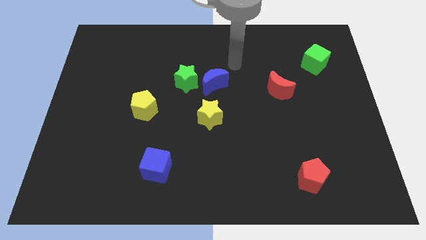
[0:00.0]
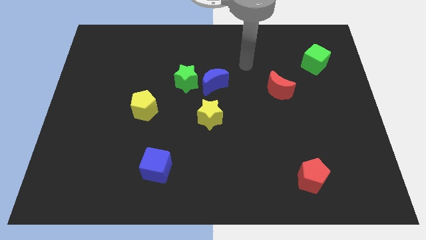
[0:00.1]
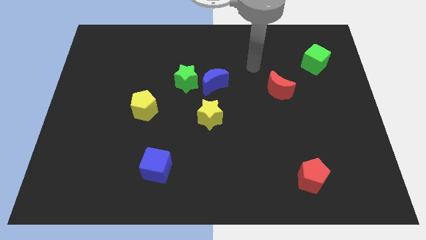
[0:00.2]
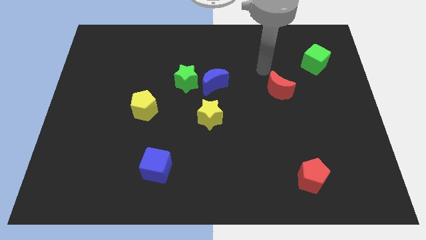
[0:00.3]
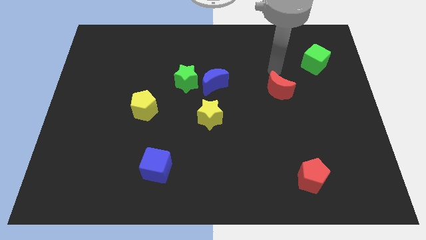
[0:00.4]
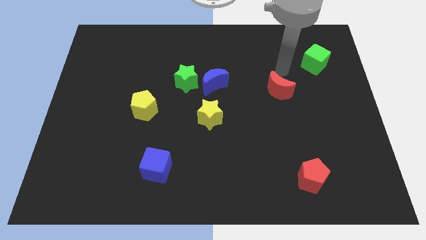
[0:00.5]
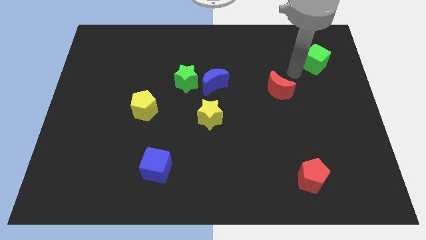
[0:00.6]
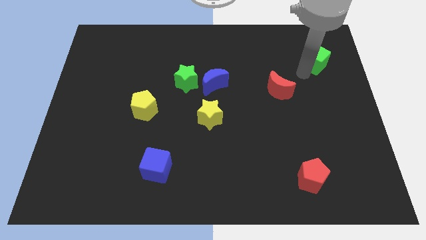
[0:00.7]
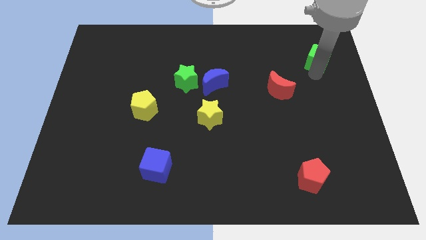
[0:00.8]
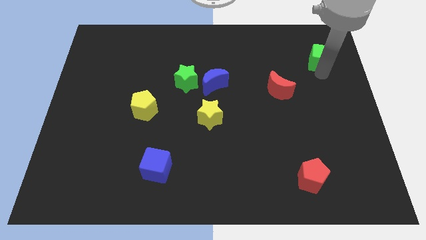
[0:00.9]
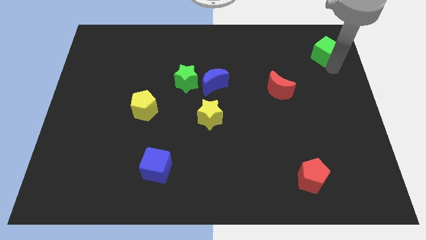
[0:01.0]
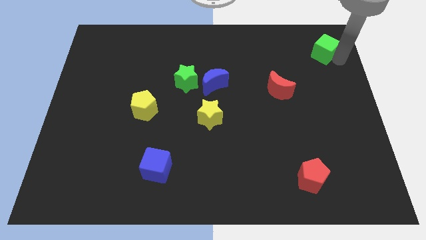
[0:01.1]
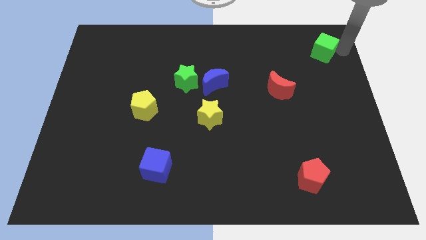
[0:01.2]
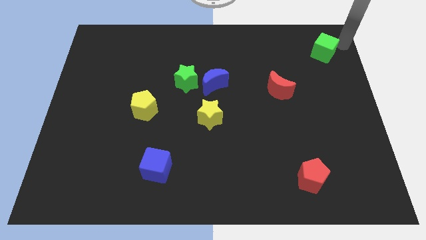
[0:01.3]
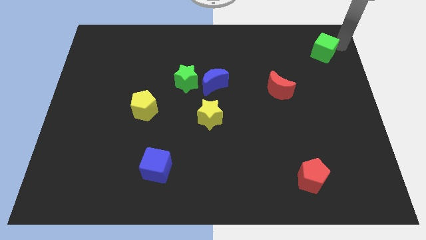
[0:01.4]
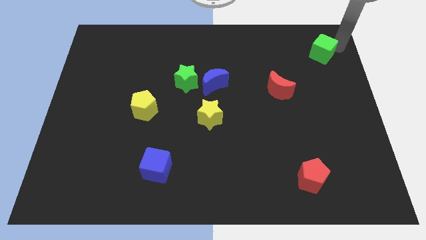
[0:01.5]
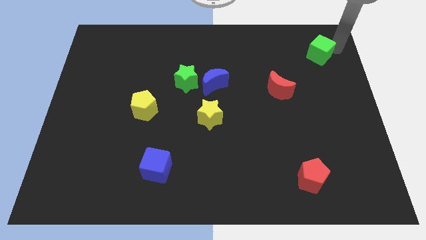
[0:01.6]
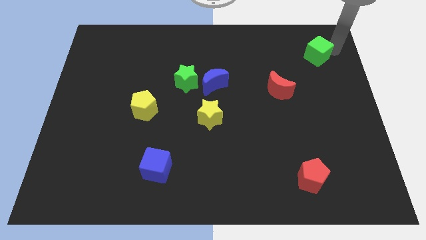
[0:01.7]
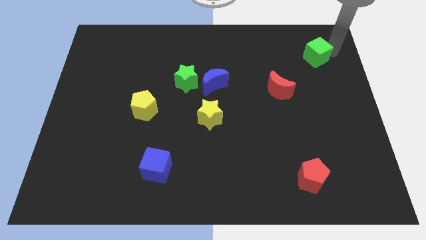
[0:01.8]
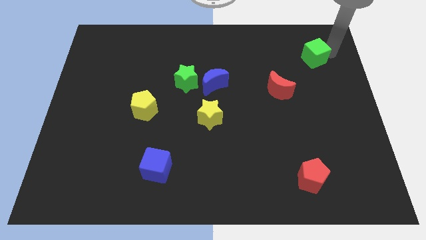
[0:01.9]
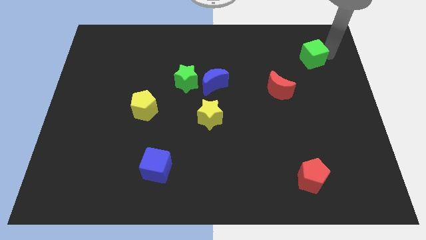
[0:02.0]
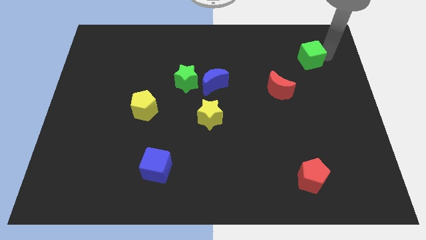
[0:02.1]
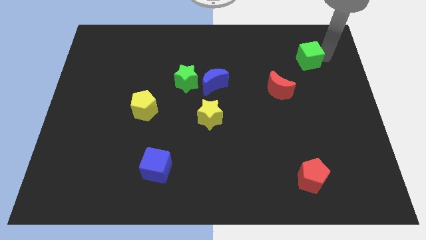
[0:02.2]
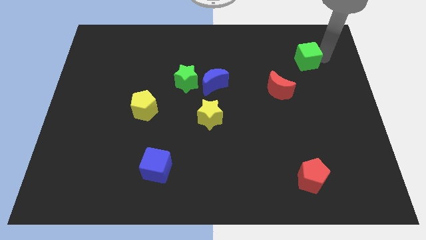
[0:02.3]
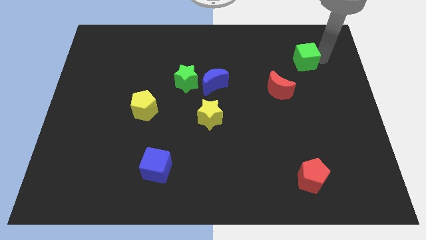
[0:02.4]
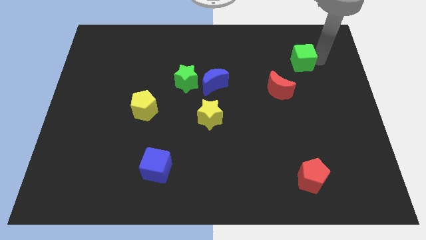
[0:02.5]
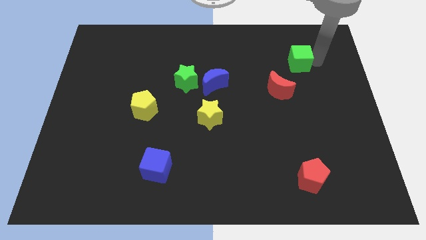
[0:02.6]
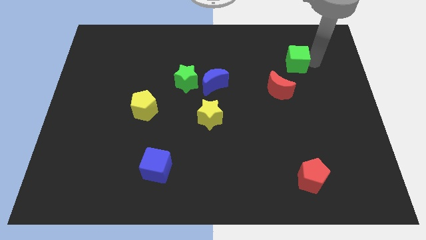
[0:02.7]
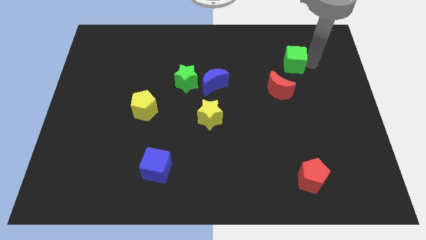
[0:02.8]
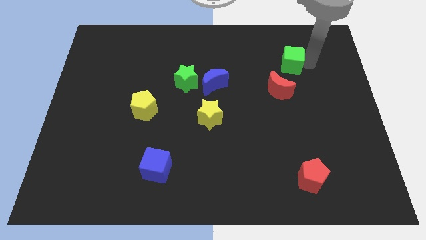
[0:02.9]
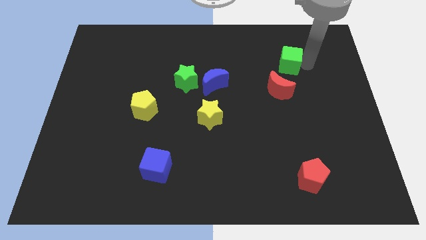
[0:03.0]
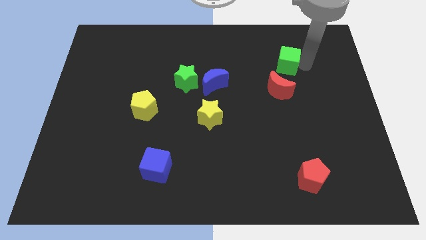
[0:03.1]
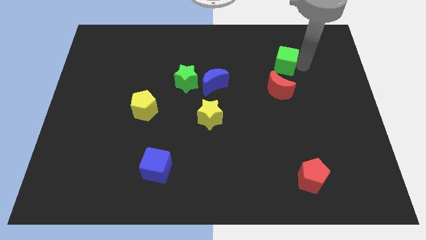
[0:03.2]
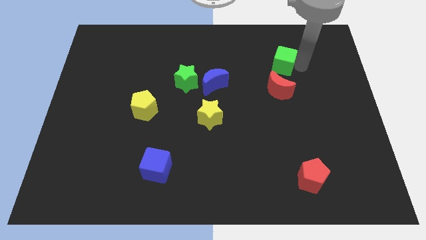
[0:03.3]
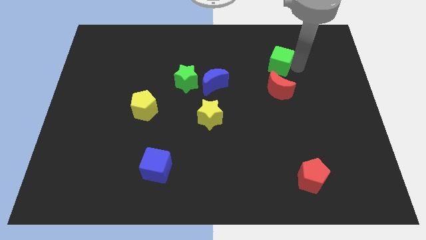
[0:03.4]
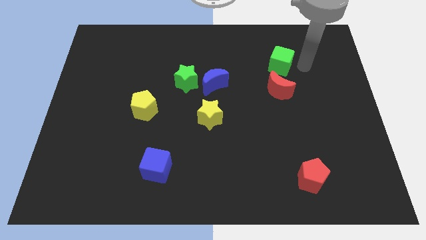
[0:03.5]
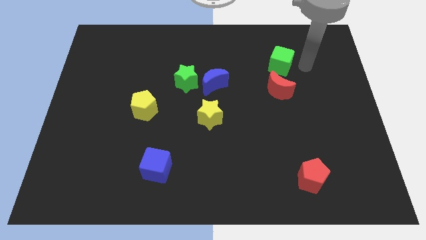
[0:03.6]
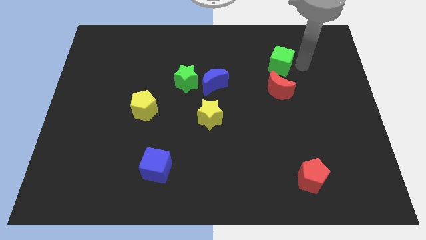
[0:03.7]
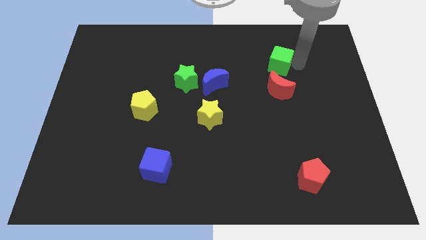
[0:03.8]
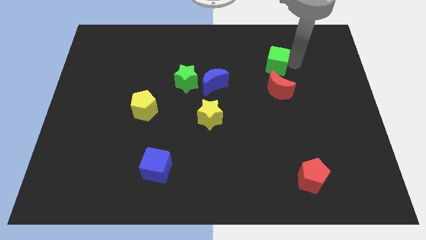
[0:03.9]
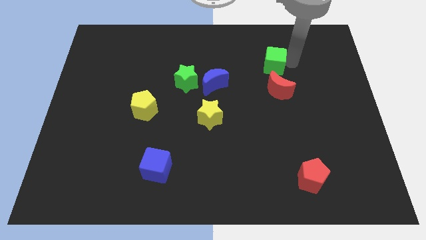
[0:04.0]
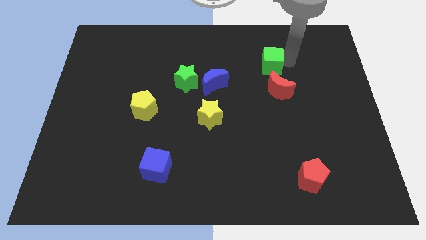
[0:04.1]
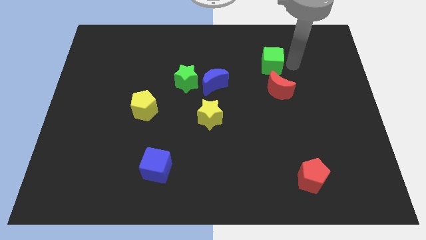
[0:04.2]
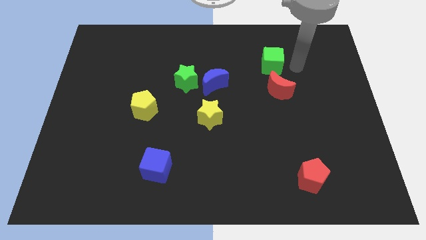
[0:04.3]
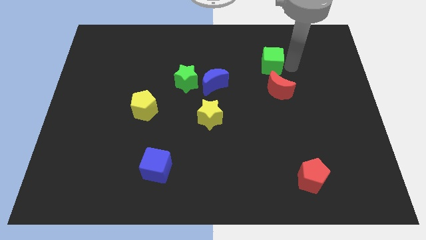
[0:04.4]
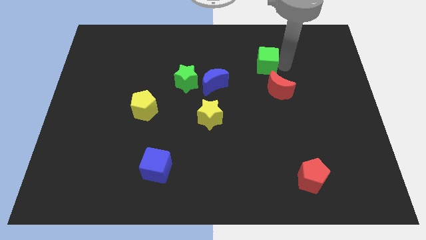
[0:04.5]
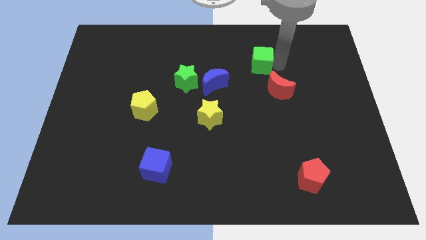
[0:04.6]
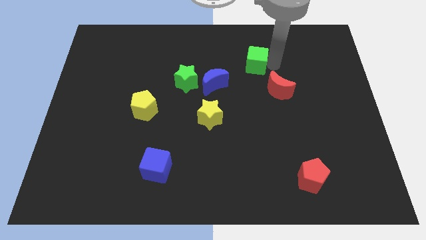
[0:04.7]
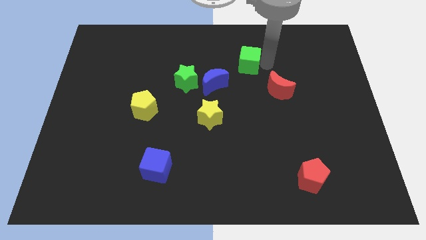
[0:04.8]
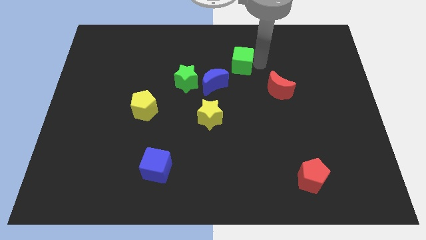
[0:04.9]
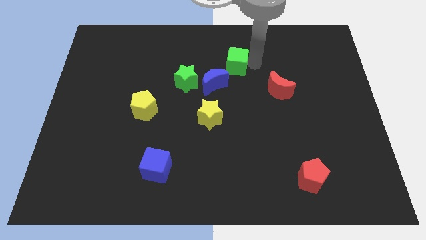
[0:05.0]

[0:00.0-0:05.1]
slide the green cube to the left

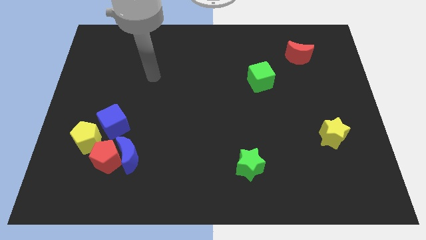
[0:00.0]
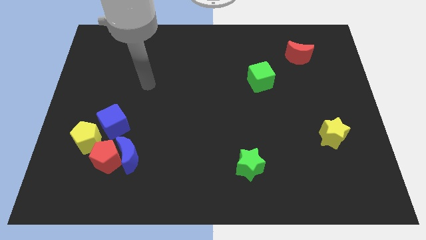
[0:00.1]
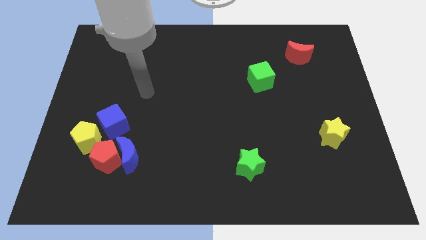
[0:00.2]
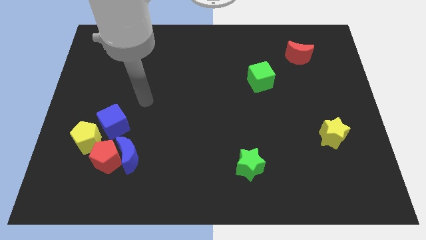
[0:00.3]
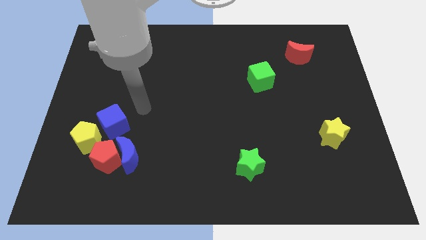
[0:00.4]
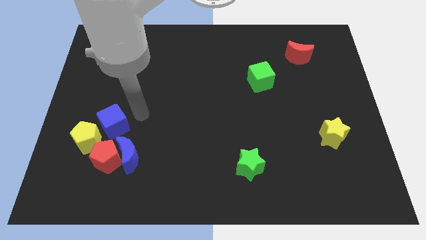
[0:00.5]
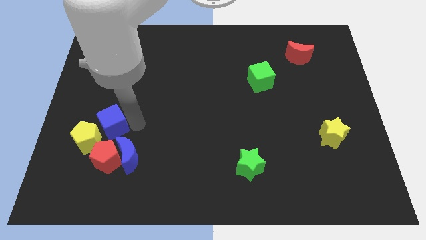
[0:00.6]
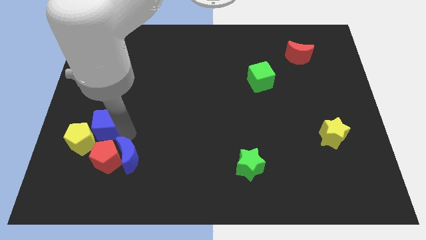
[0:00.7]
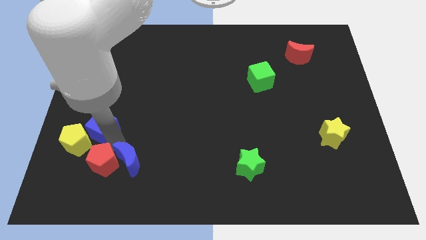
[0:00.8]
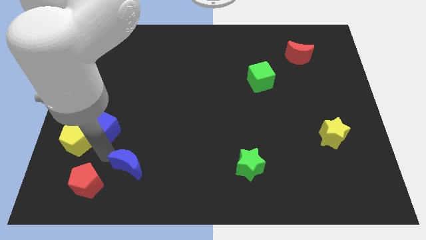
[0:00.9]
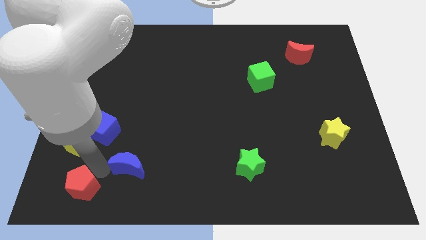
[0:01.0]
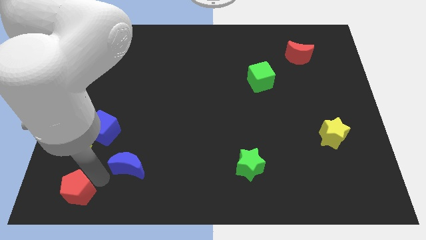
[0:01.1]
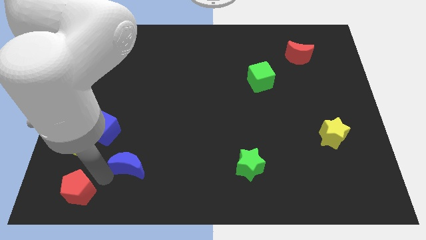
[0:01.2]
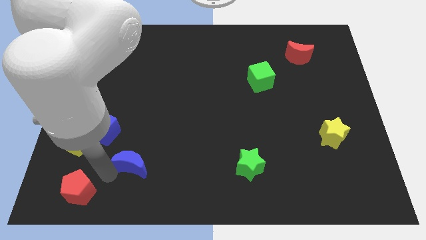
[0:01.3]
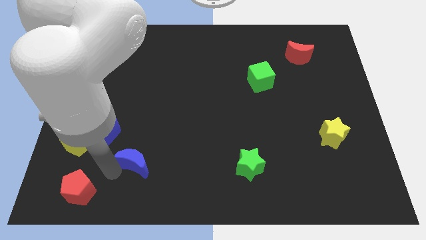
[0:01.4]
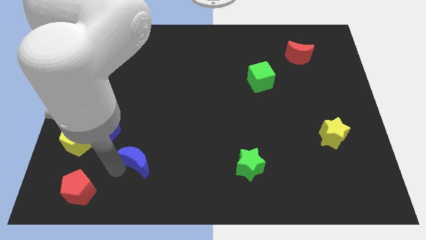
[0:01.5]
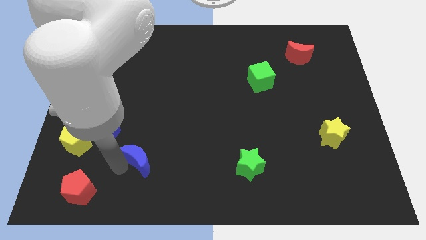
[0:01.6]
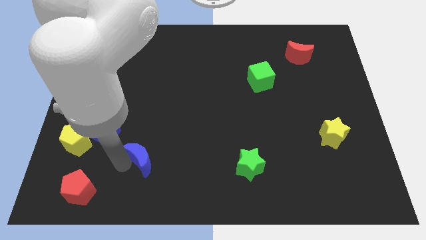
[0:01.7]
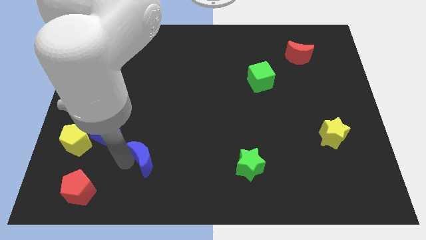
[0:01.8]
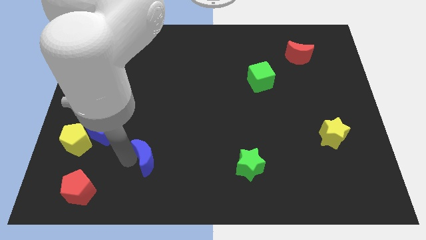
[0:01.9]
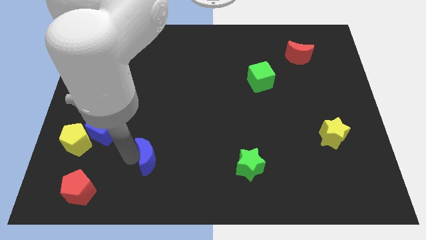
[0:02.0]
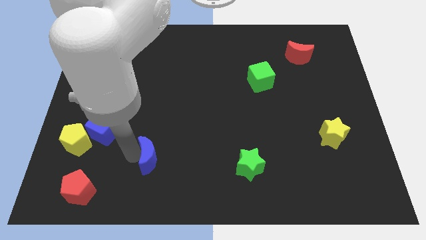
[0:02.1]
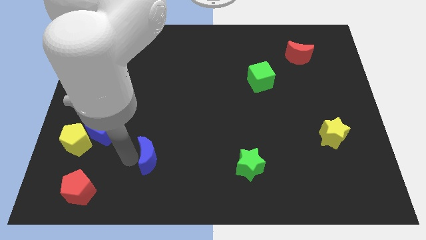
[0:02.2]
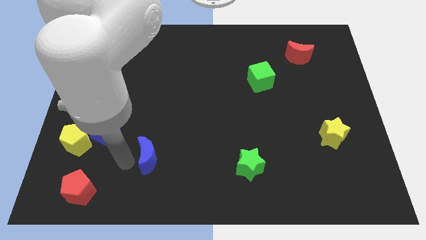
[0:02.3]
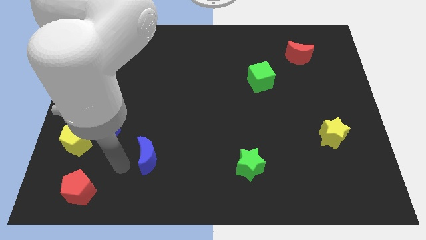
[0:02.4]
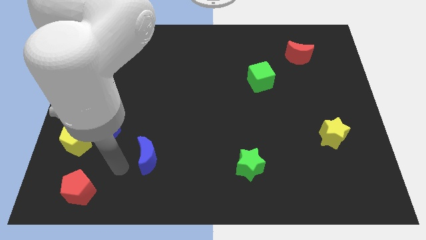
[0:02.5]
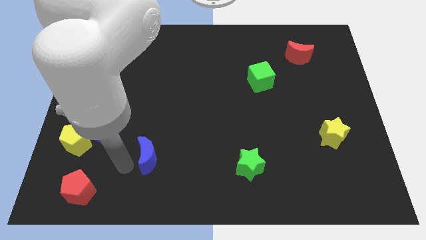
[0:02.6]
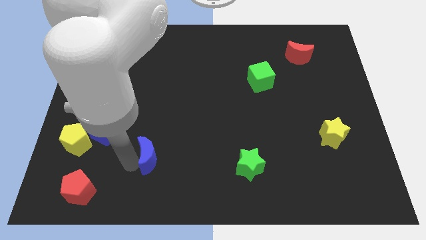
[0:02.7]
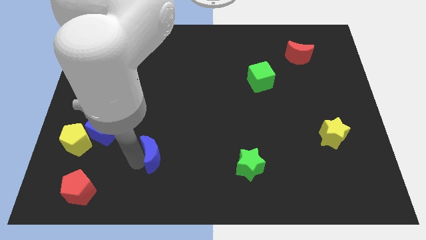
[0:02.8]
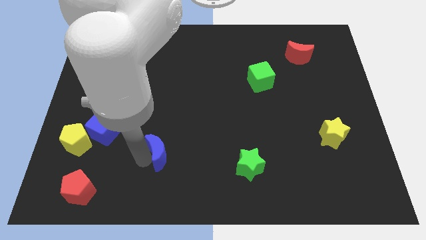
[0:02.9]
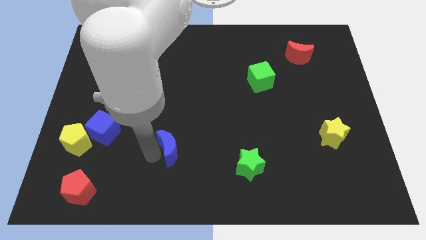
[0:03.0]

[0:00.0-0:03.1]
push the blue moon a little bit right

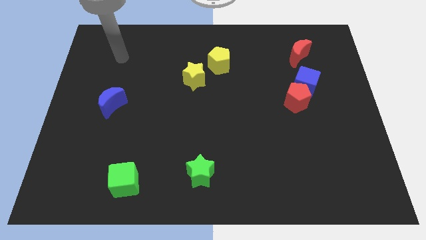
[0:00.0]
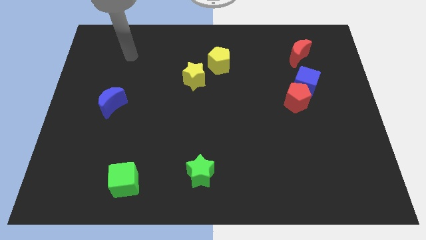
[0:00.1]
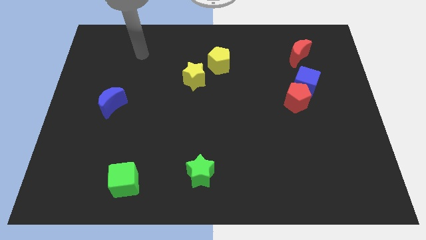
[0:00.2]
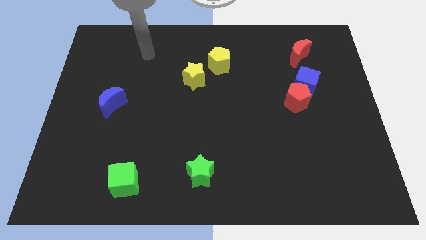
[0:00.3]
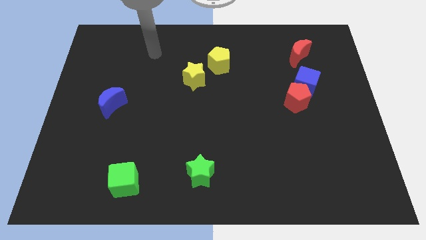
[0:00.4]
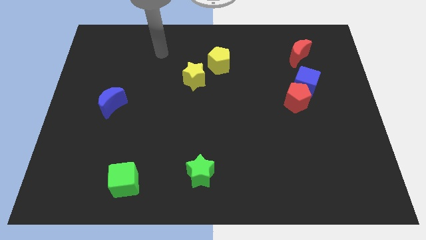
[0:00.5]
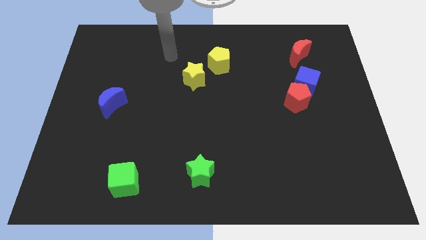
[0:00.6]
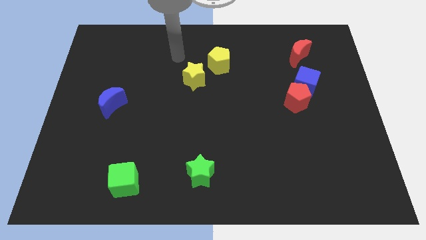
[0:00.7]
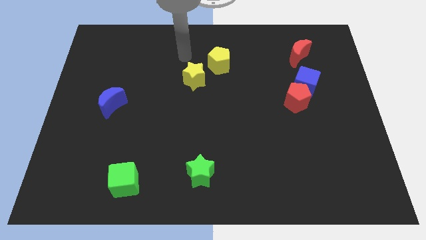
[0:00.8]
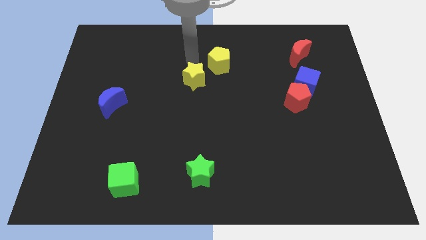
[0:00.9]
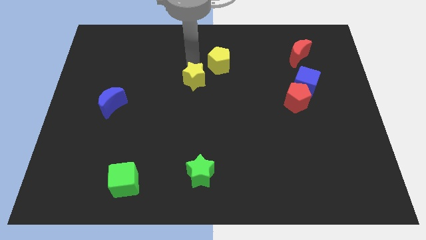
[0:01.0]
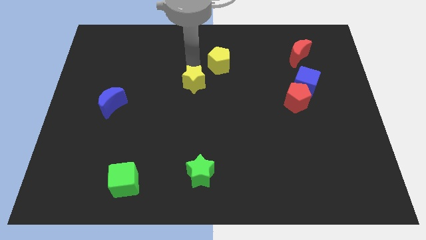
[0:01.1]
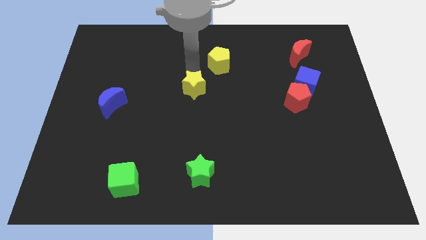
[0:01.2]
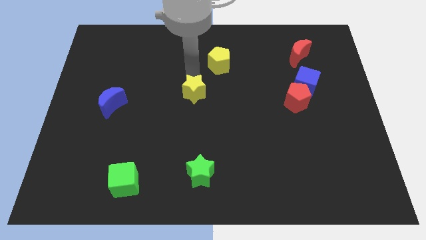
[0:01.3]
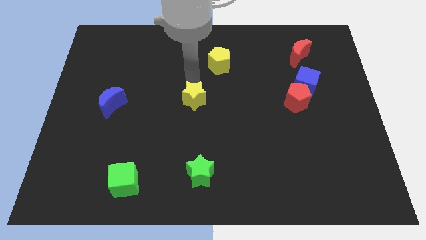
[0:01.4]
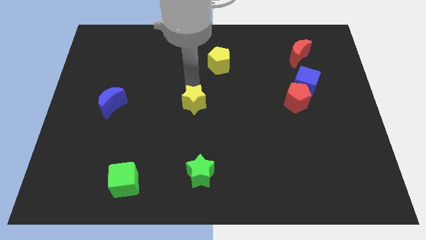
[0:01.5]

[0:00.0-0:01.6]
move the yellow star down somewhat
